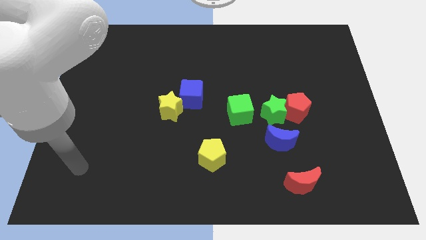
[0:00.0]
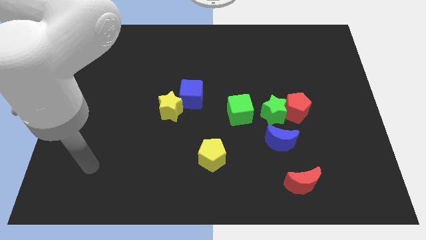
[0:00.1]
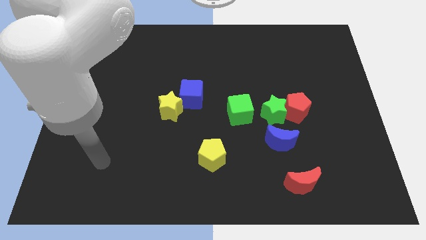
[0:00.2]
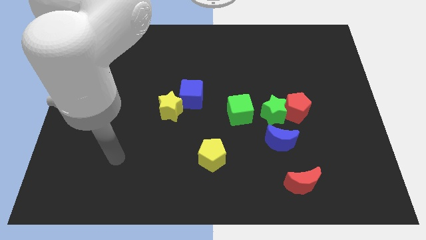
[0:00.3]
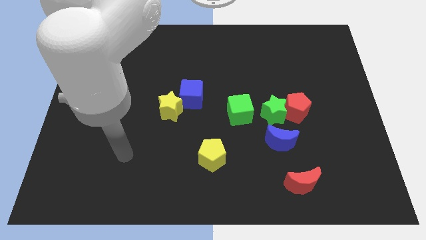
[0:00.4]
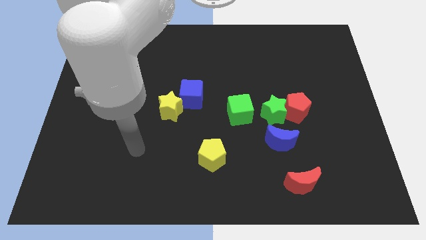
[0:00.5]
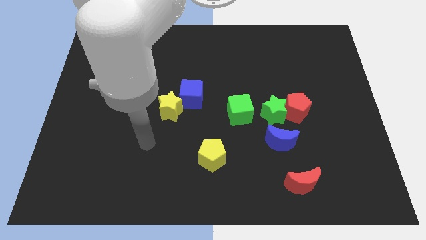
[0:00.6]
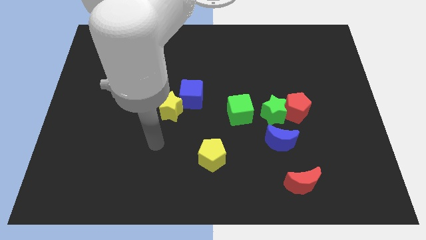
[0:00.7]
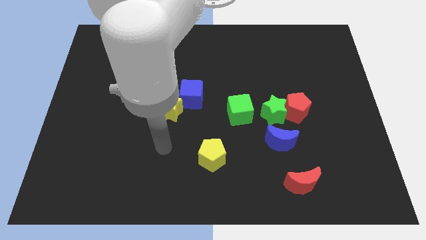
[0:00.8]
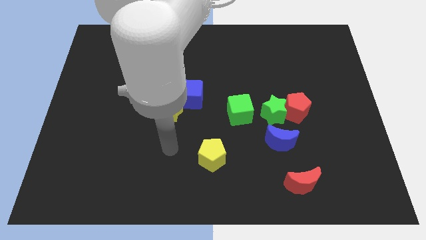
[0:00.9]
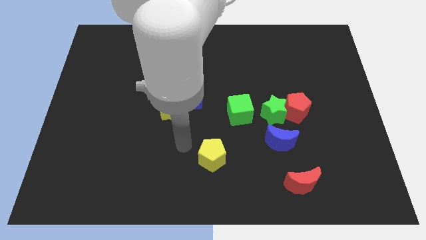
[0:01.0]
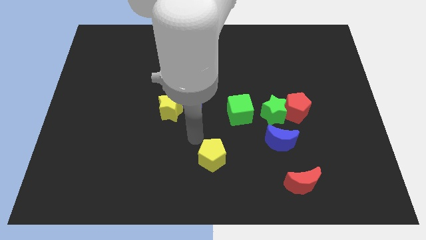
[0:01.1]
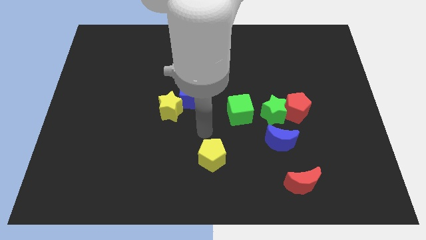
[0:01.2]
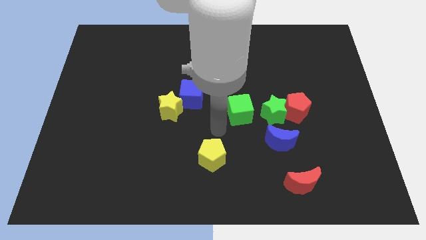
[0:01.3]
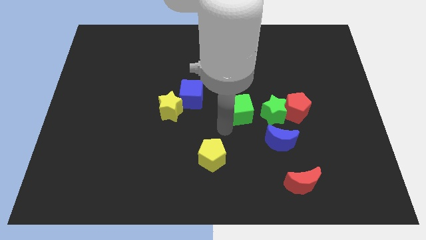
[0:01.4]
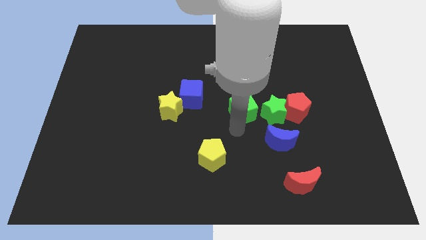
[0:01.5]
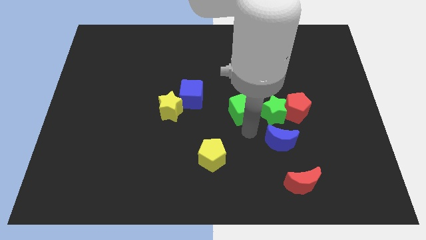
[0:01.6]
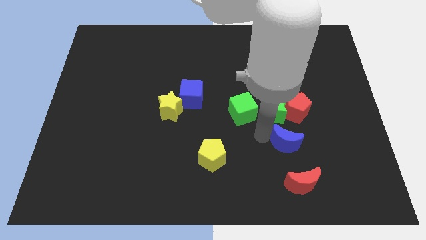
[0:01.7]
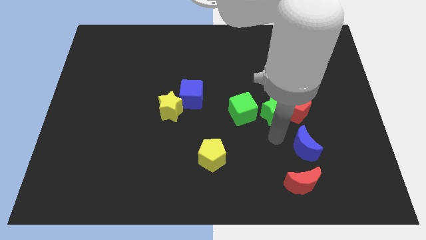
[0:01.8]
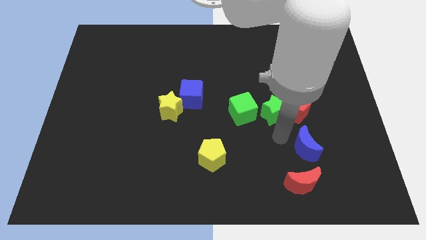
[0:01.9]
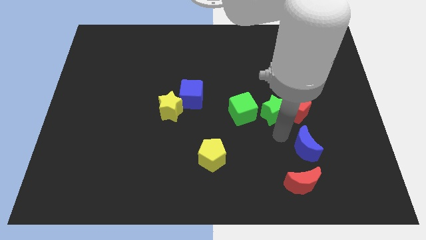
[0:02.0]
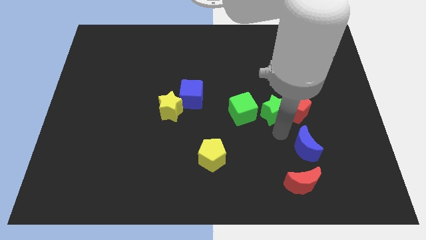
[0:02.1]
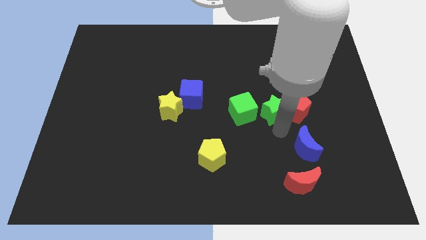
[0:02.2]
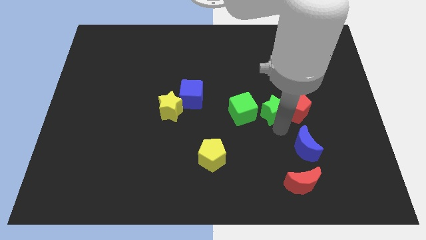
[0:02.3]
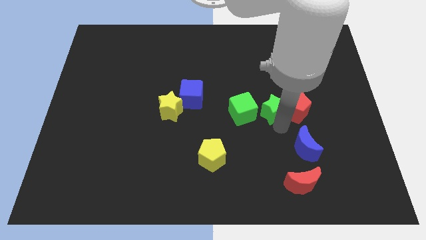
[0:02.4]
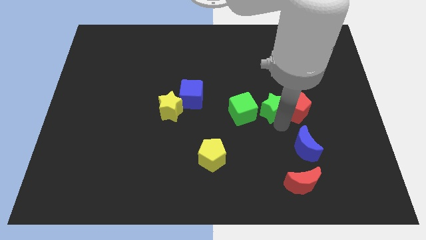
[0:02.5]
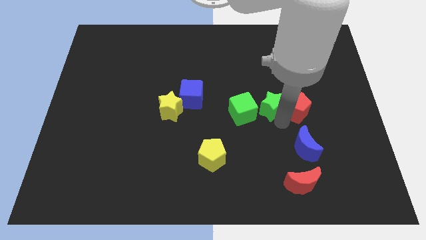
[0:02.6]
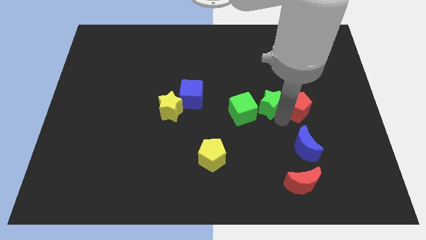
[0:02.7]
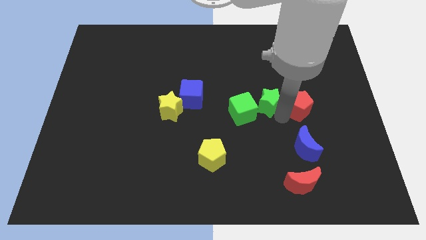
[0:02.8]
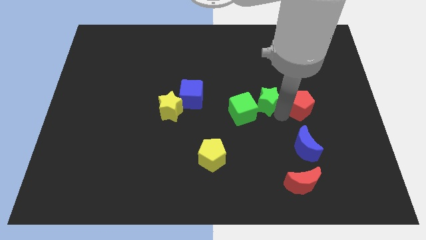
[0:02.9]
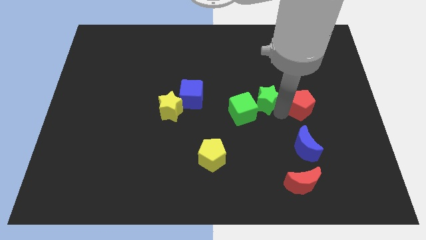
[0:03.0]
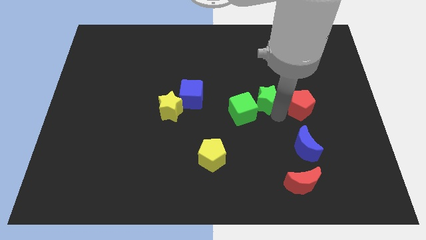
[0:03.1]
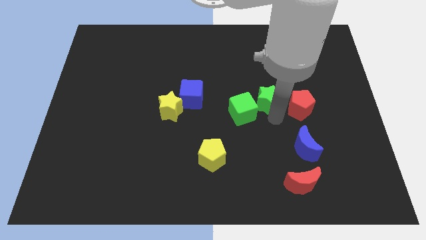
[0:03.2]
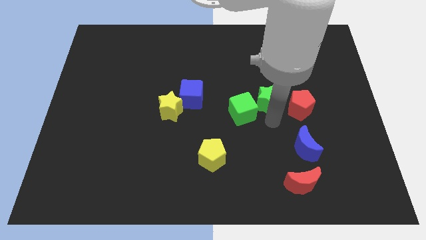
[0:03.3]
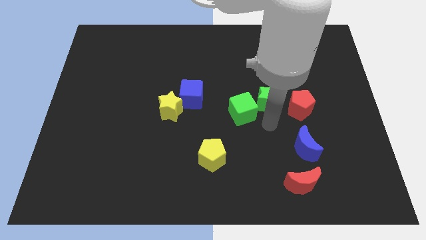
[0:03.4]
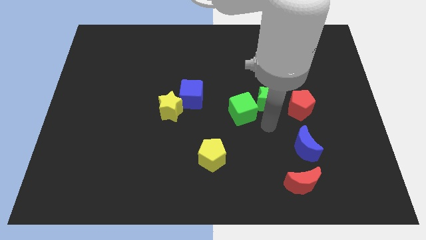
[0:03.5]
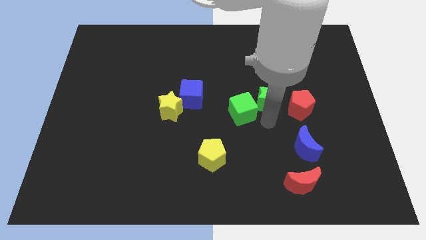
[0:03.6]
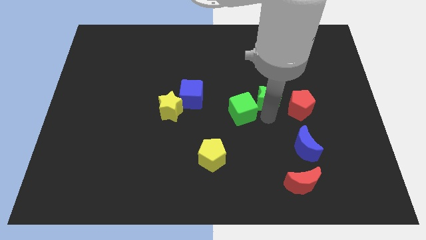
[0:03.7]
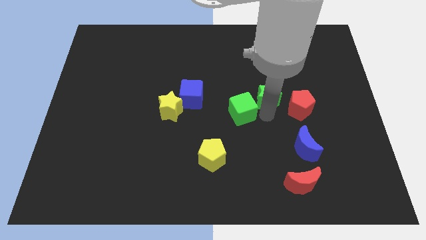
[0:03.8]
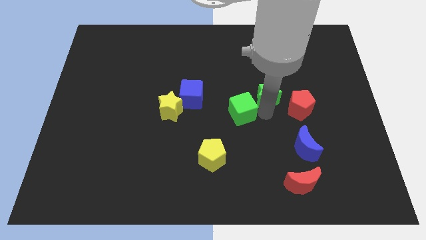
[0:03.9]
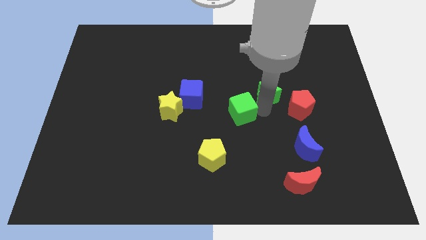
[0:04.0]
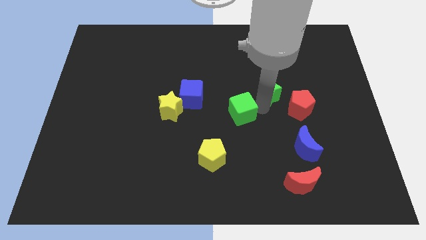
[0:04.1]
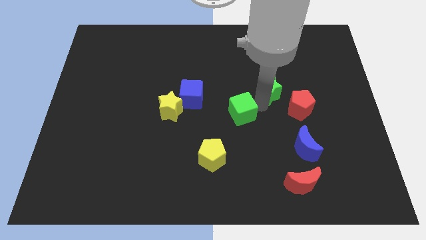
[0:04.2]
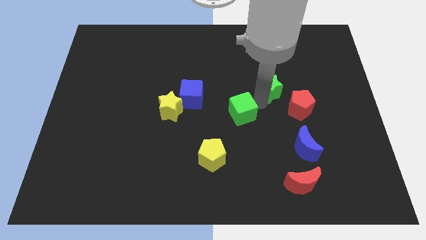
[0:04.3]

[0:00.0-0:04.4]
move the green star slightly upwards

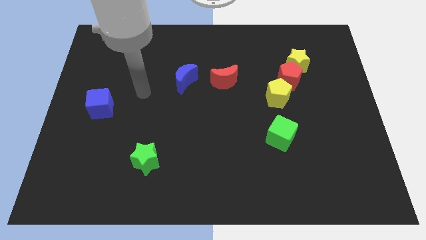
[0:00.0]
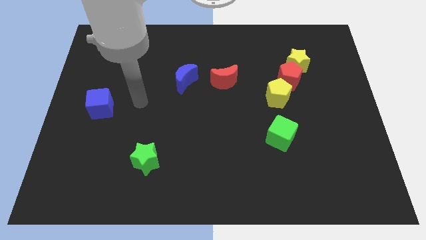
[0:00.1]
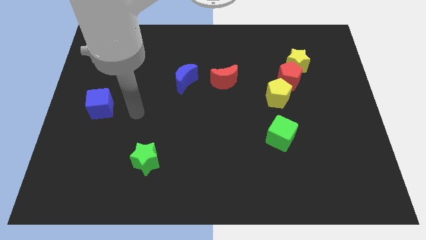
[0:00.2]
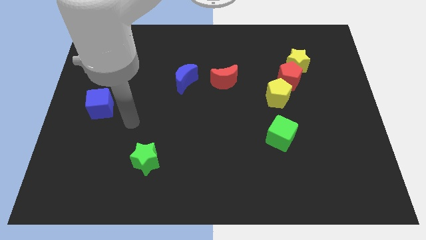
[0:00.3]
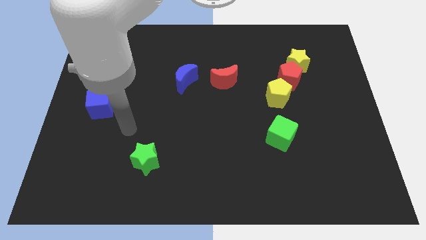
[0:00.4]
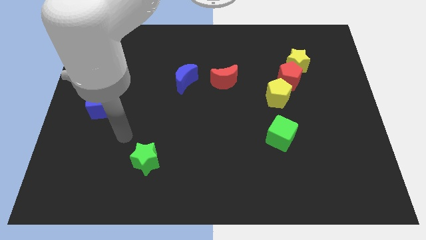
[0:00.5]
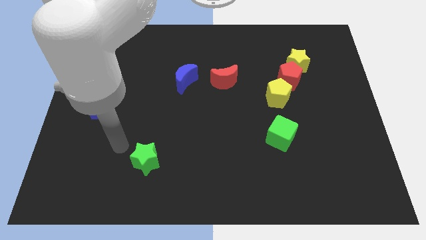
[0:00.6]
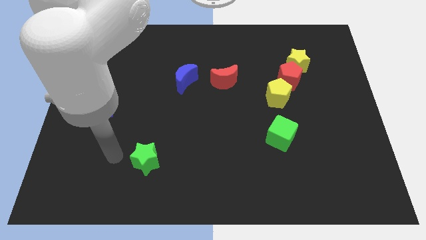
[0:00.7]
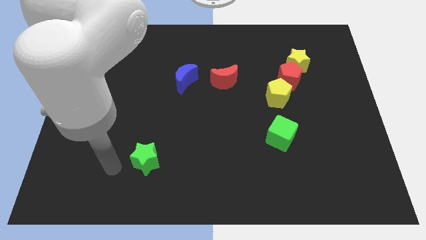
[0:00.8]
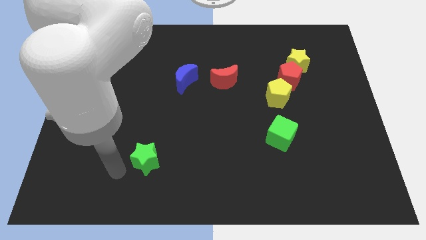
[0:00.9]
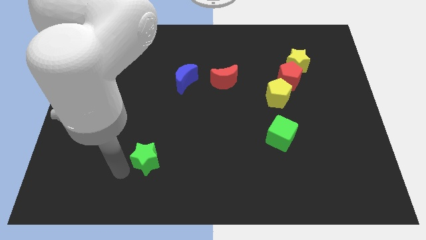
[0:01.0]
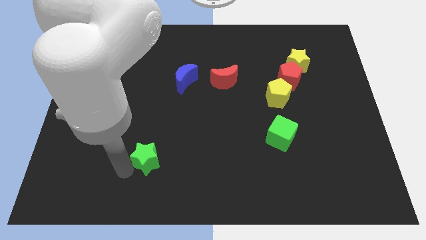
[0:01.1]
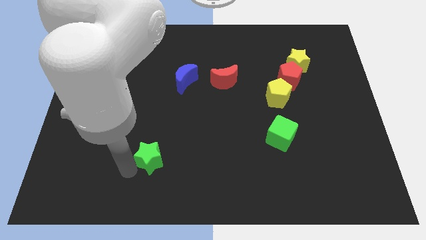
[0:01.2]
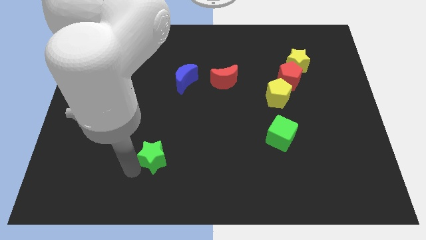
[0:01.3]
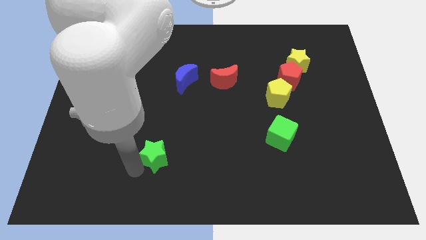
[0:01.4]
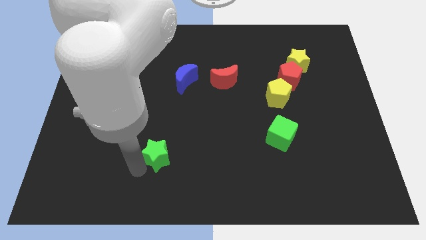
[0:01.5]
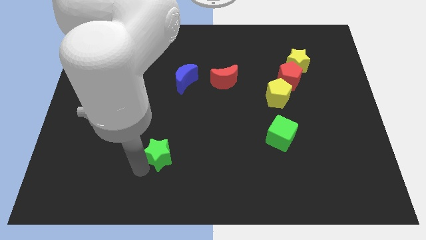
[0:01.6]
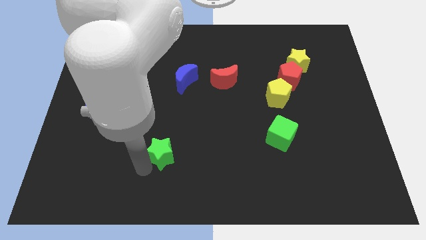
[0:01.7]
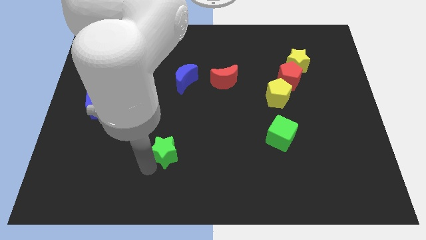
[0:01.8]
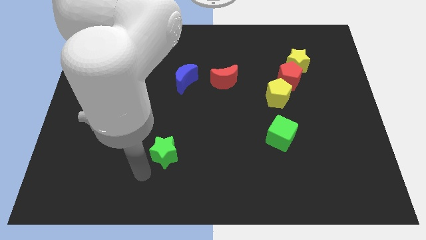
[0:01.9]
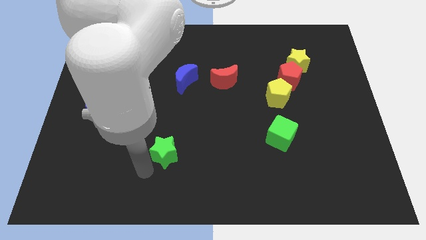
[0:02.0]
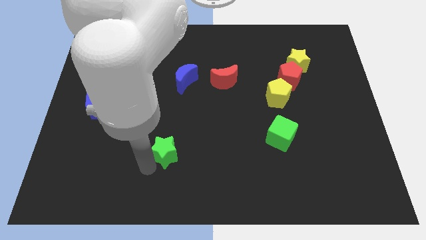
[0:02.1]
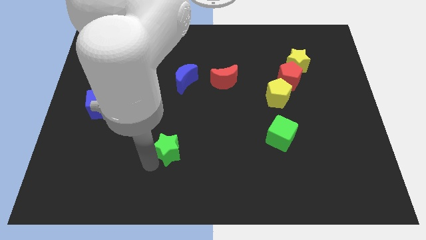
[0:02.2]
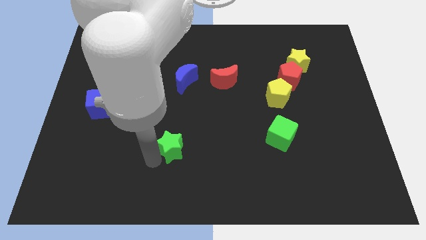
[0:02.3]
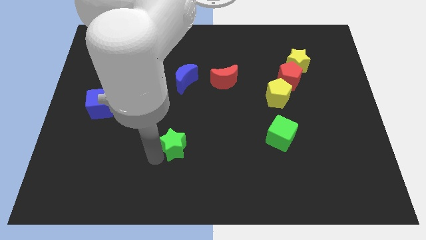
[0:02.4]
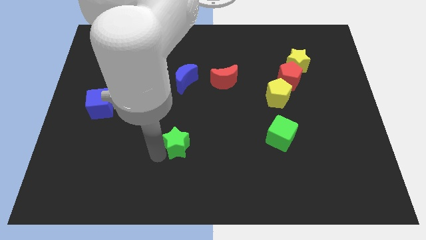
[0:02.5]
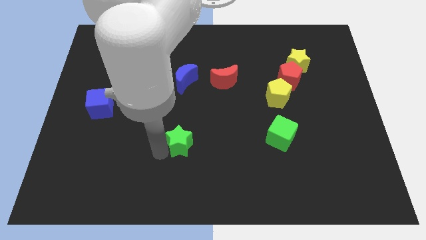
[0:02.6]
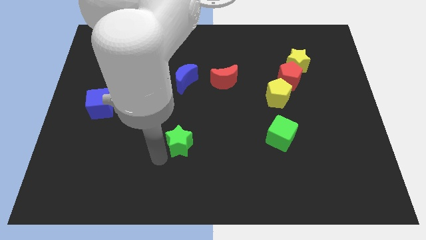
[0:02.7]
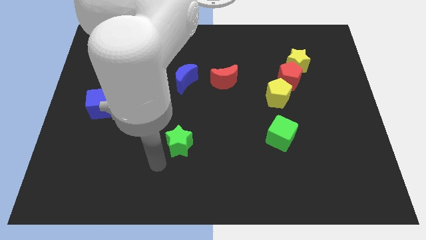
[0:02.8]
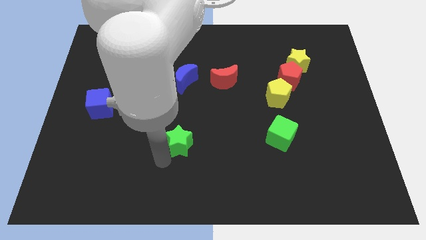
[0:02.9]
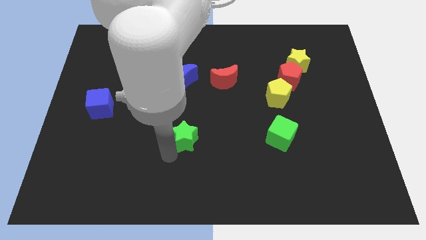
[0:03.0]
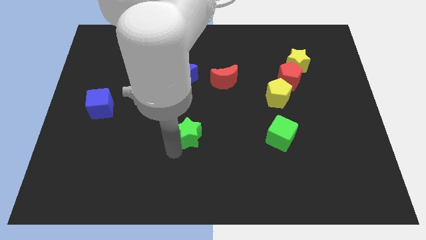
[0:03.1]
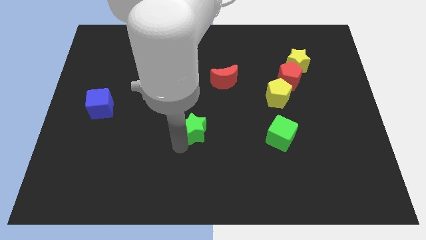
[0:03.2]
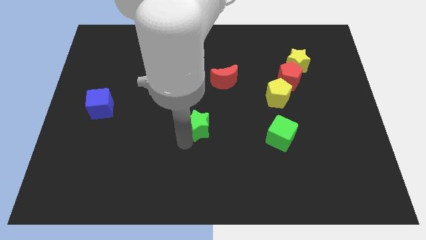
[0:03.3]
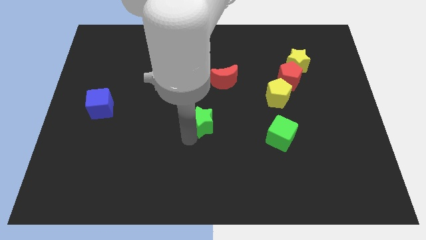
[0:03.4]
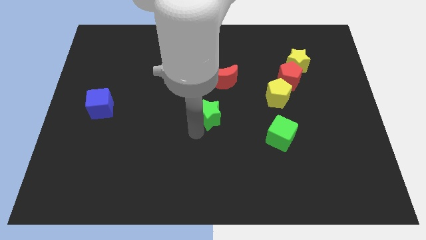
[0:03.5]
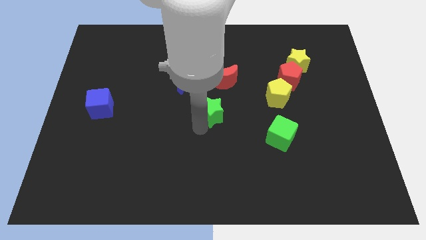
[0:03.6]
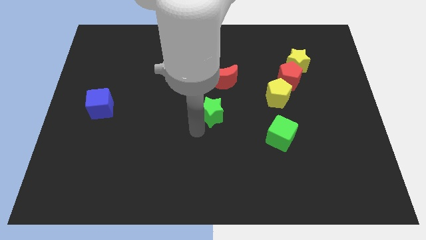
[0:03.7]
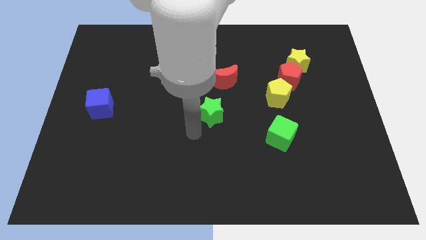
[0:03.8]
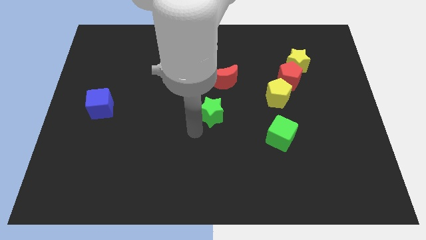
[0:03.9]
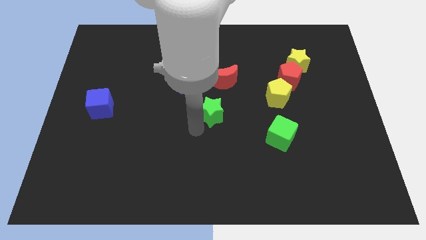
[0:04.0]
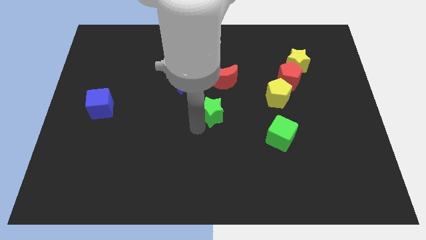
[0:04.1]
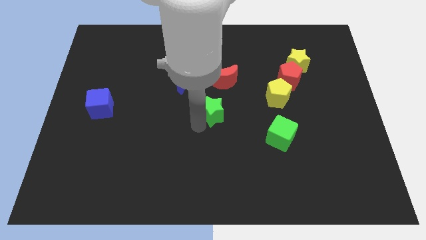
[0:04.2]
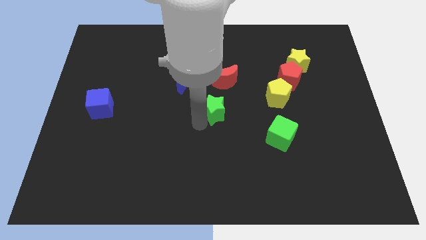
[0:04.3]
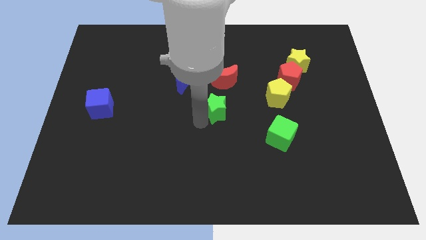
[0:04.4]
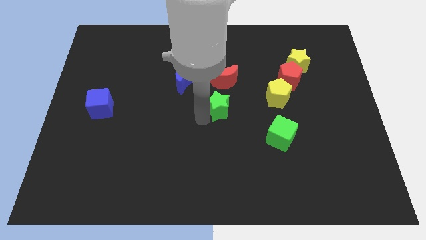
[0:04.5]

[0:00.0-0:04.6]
slide the green star upwards and to the right diagonally
